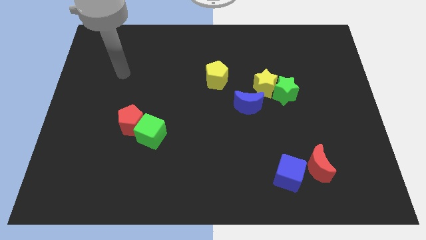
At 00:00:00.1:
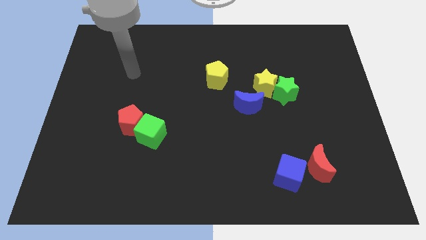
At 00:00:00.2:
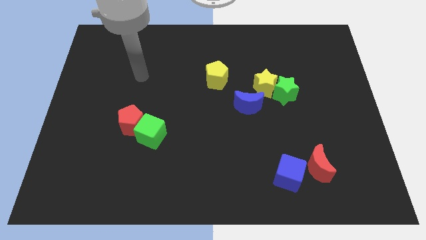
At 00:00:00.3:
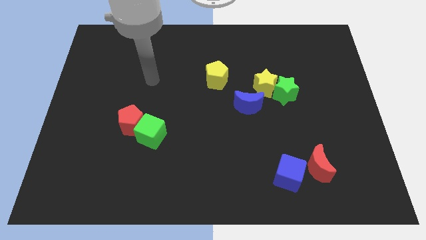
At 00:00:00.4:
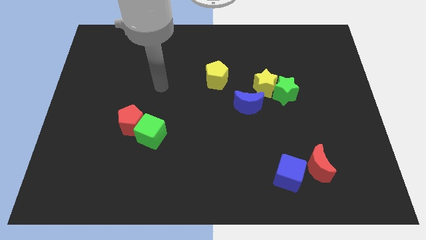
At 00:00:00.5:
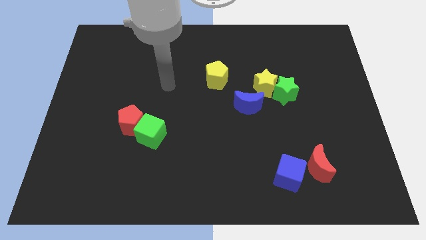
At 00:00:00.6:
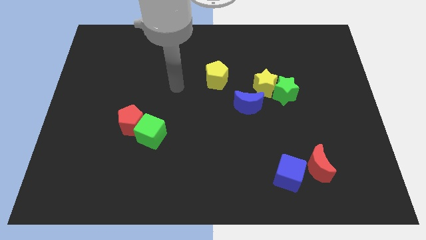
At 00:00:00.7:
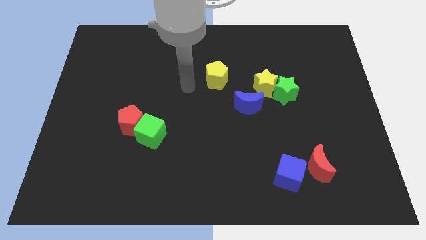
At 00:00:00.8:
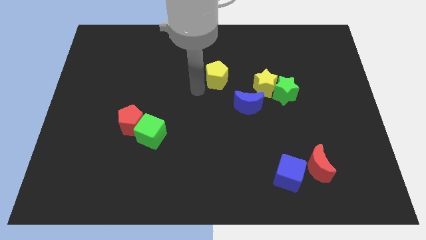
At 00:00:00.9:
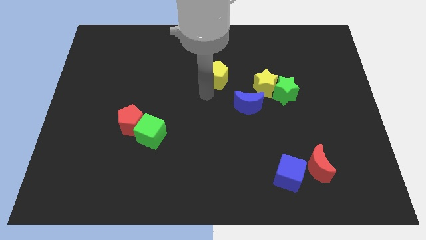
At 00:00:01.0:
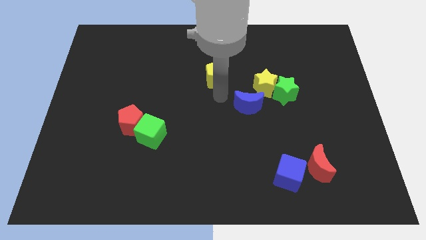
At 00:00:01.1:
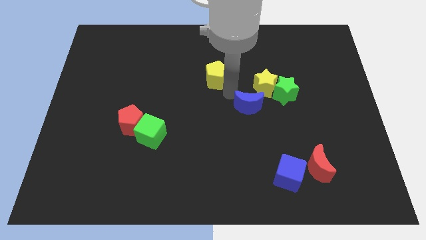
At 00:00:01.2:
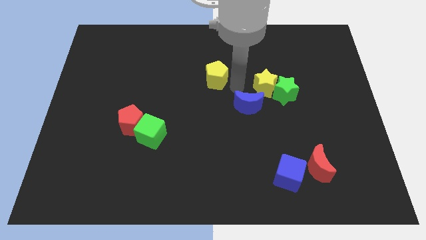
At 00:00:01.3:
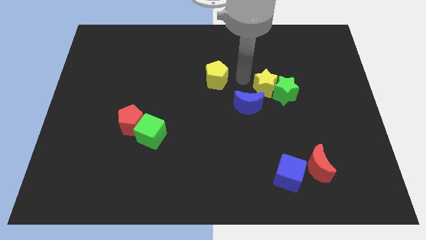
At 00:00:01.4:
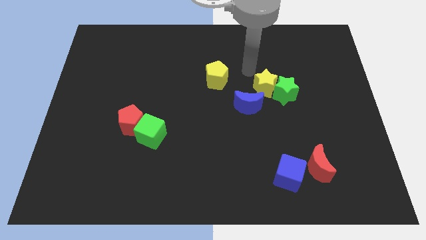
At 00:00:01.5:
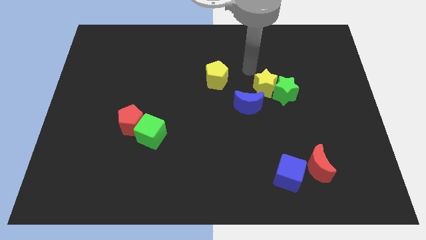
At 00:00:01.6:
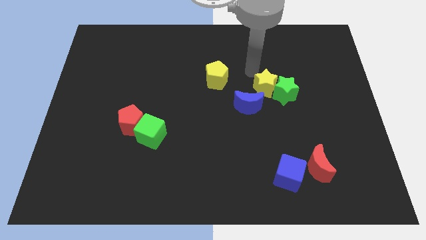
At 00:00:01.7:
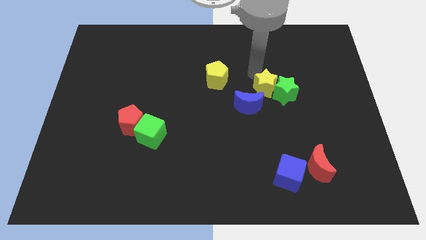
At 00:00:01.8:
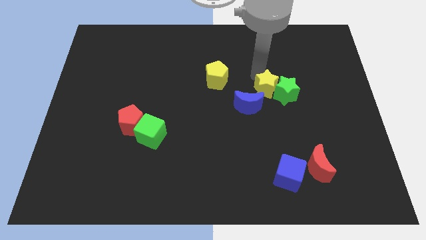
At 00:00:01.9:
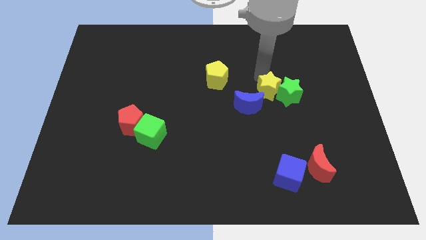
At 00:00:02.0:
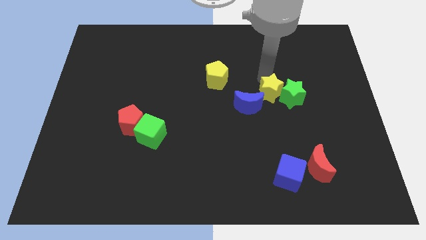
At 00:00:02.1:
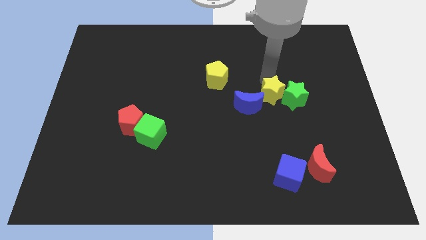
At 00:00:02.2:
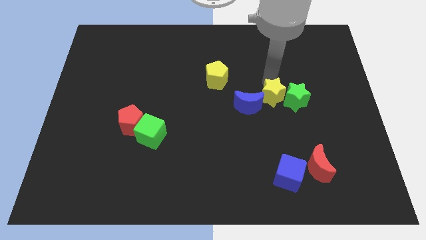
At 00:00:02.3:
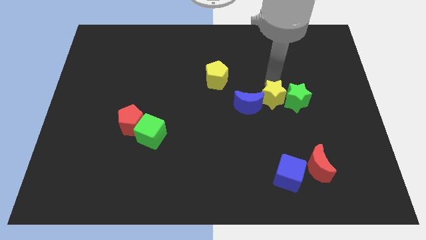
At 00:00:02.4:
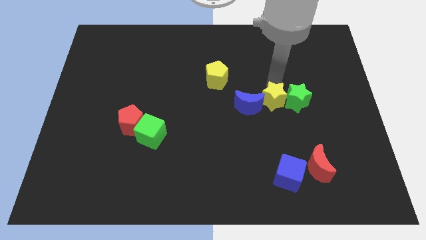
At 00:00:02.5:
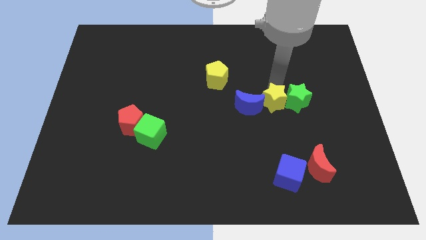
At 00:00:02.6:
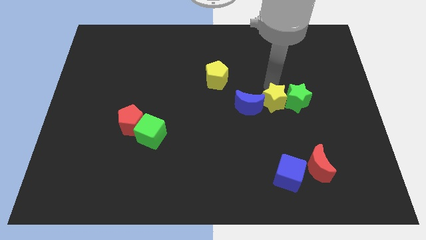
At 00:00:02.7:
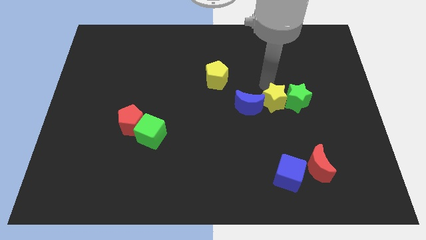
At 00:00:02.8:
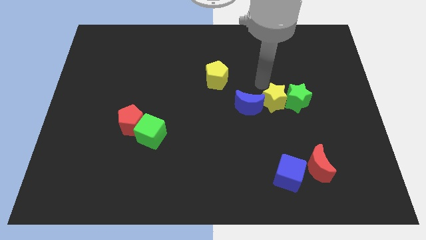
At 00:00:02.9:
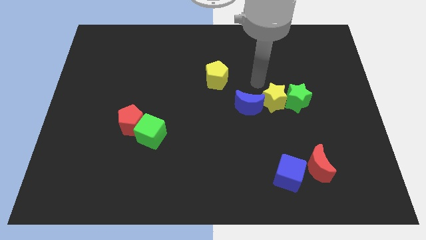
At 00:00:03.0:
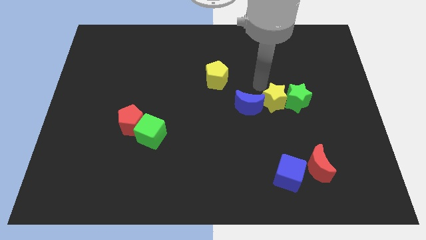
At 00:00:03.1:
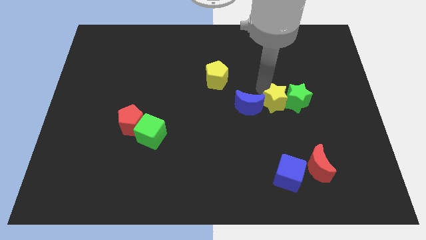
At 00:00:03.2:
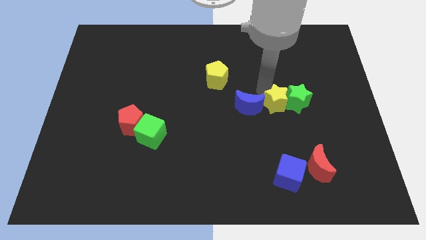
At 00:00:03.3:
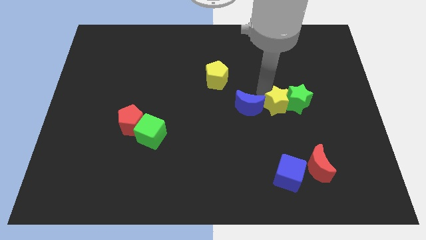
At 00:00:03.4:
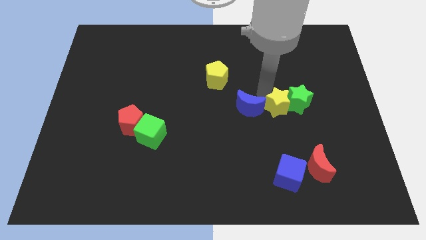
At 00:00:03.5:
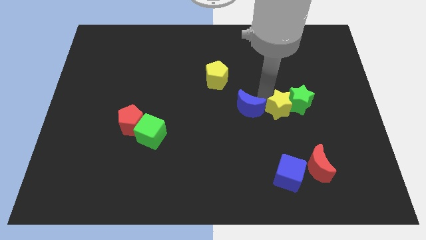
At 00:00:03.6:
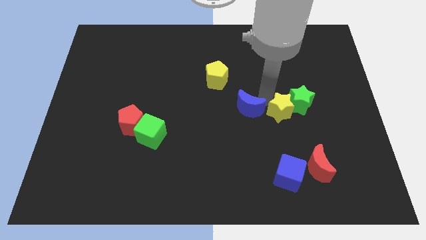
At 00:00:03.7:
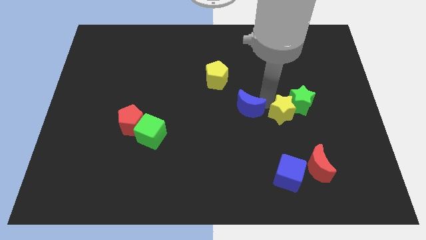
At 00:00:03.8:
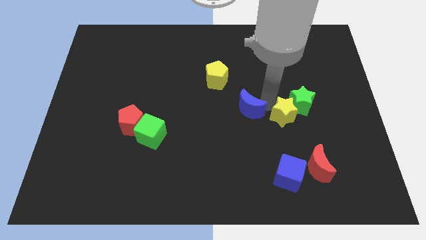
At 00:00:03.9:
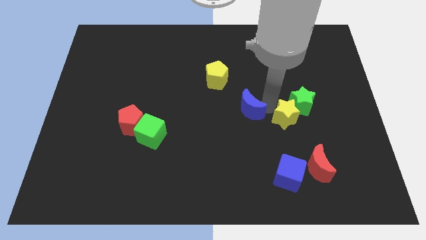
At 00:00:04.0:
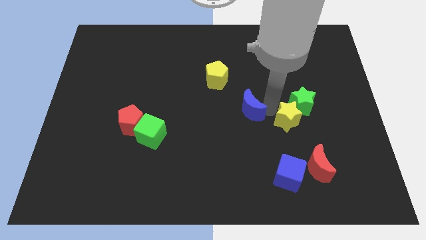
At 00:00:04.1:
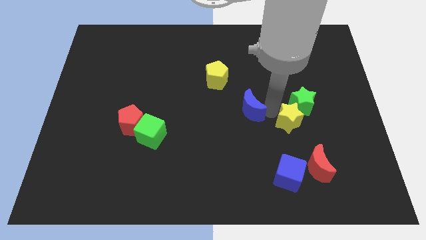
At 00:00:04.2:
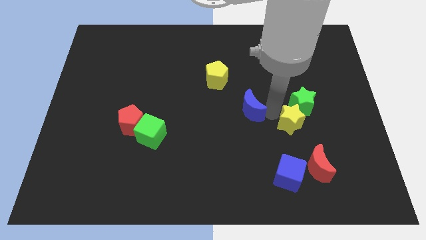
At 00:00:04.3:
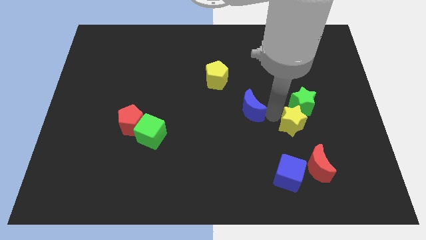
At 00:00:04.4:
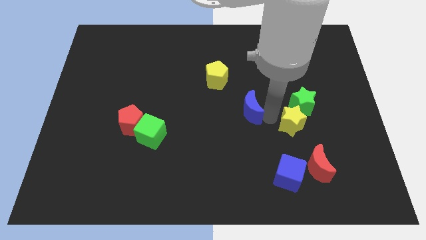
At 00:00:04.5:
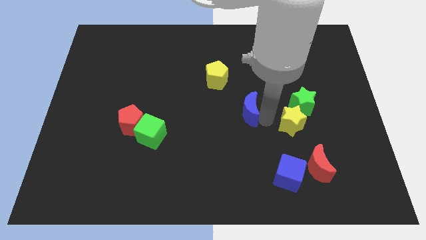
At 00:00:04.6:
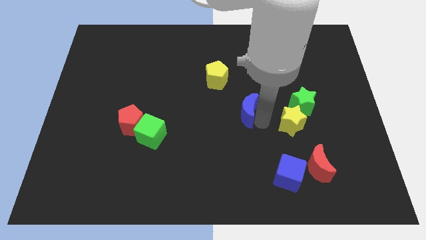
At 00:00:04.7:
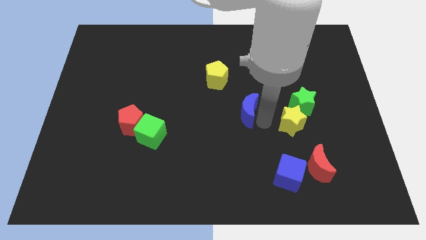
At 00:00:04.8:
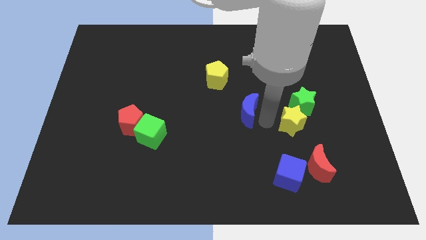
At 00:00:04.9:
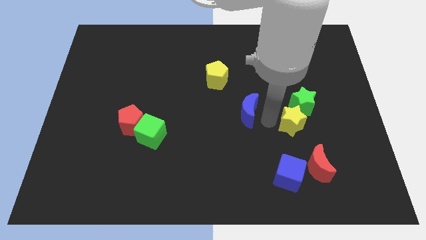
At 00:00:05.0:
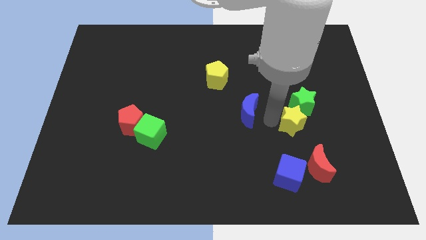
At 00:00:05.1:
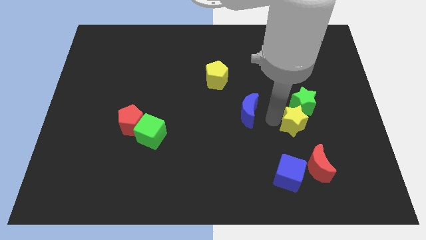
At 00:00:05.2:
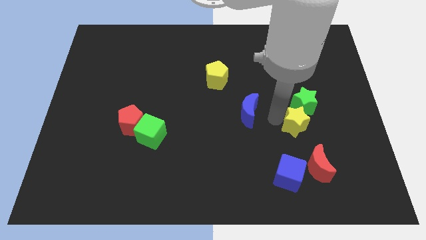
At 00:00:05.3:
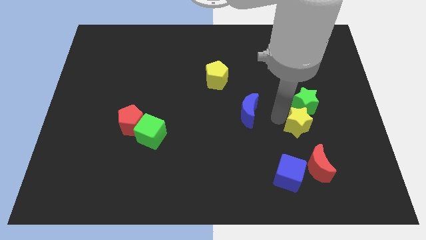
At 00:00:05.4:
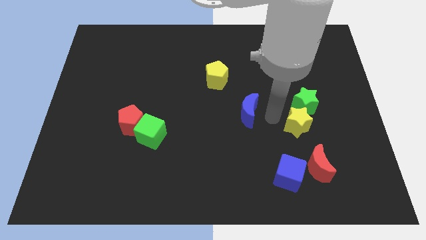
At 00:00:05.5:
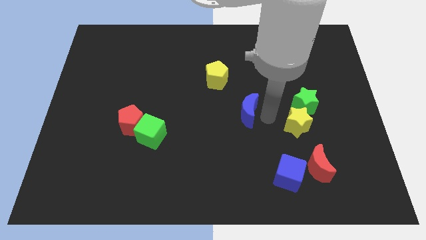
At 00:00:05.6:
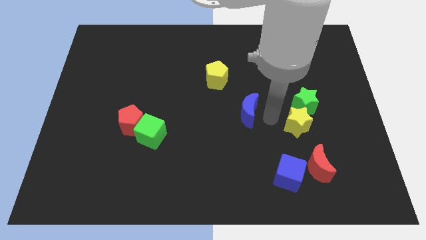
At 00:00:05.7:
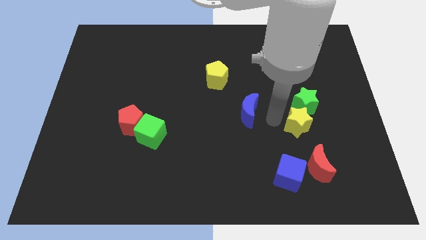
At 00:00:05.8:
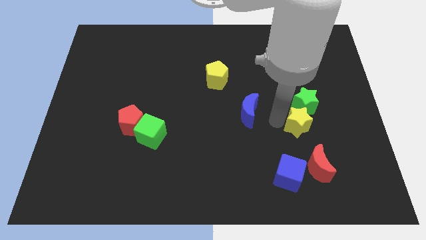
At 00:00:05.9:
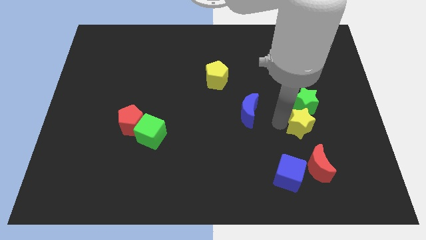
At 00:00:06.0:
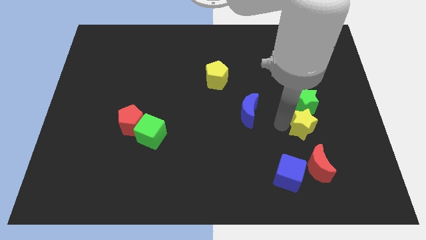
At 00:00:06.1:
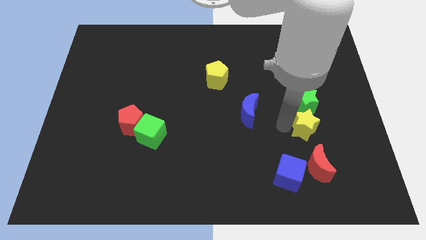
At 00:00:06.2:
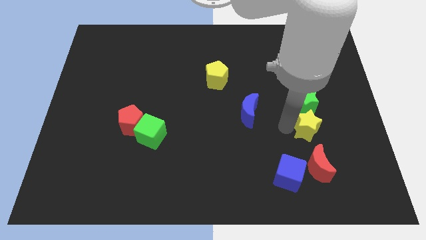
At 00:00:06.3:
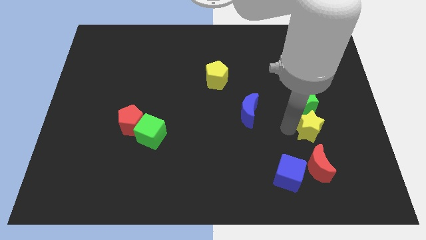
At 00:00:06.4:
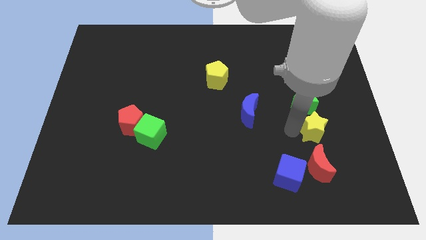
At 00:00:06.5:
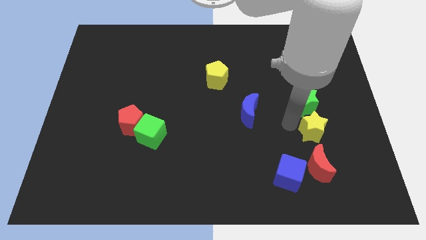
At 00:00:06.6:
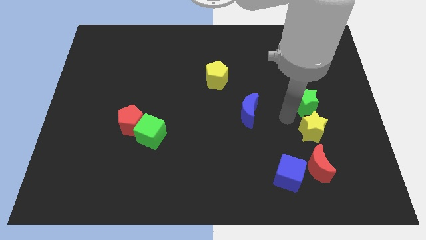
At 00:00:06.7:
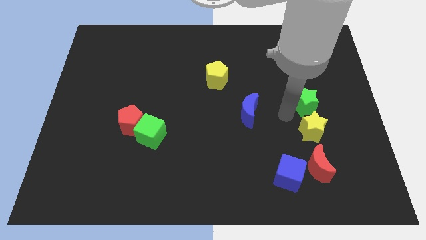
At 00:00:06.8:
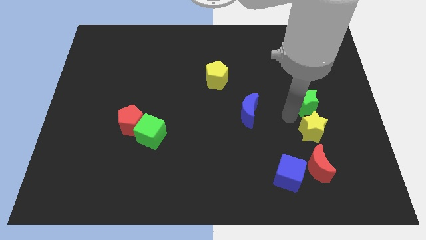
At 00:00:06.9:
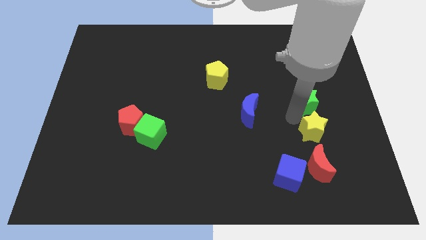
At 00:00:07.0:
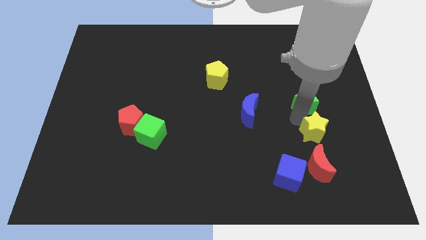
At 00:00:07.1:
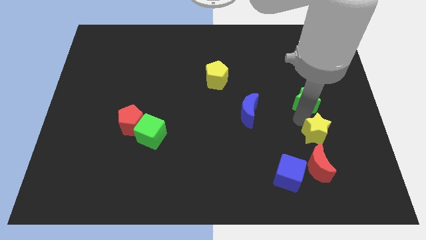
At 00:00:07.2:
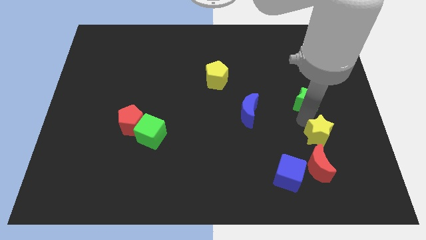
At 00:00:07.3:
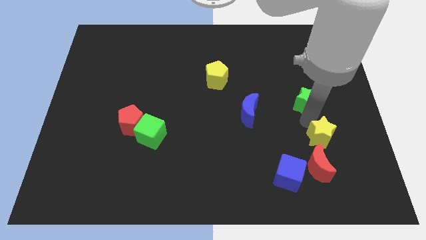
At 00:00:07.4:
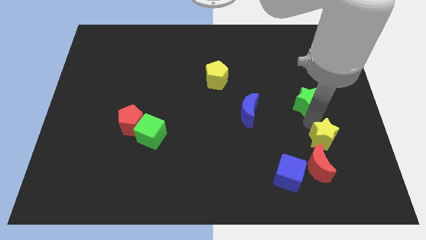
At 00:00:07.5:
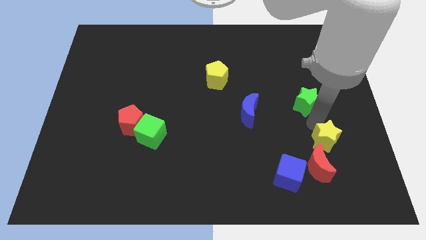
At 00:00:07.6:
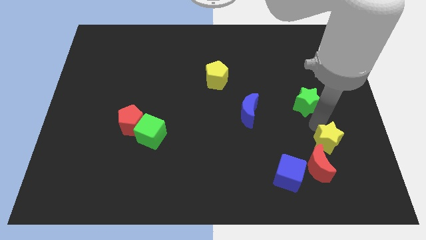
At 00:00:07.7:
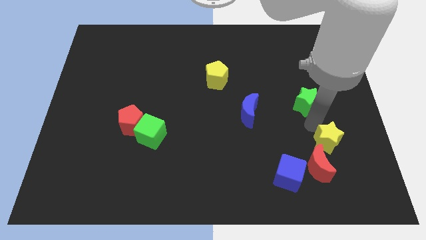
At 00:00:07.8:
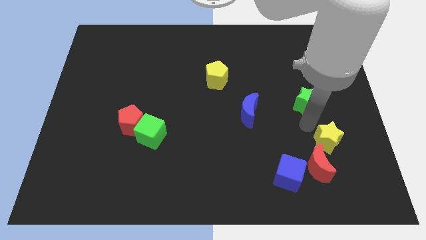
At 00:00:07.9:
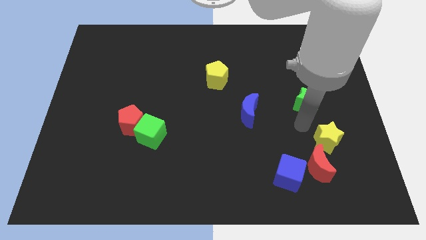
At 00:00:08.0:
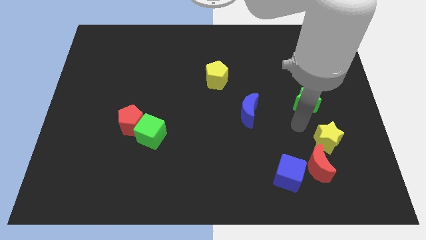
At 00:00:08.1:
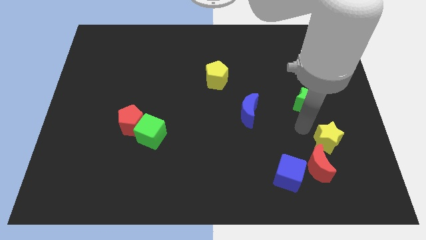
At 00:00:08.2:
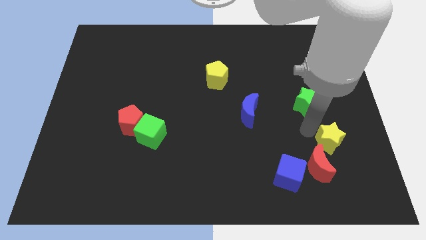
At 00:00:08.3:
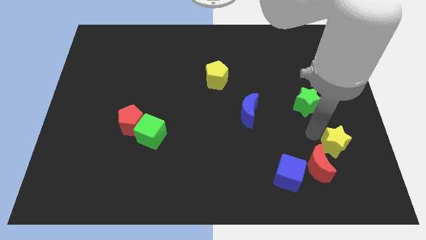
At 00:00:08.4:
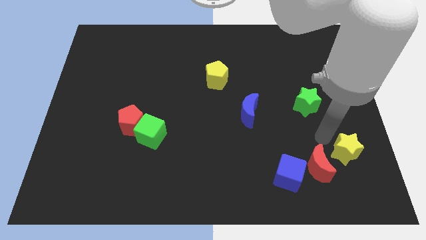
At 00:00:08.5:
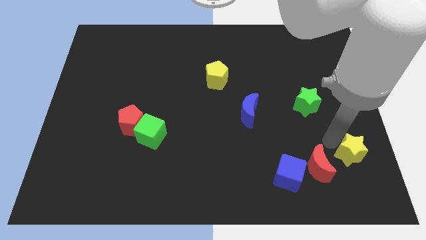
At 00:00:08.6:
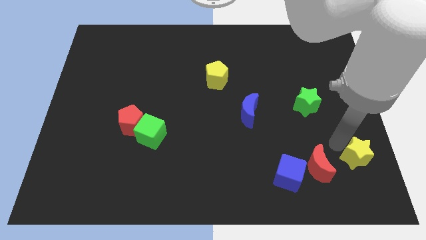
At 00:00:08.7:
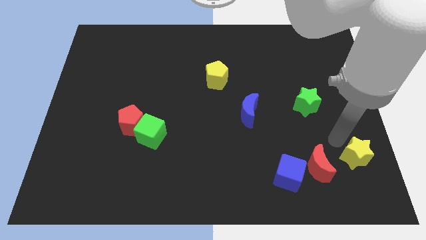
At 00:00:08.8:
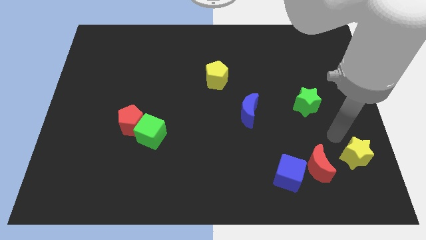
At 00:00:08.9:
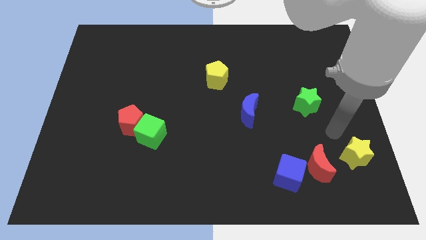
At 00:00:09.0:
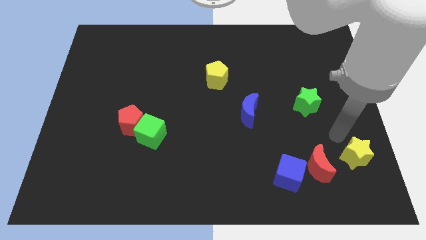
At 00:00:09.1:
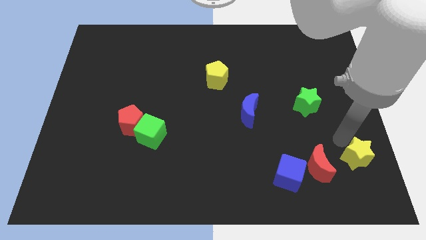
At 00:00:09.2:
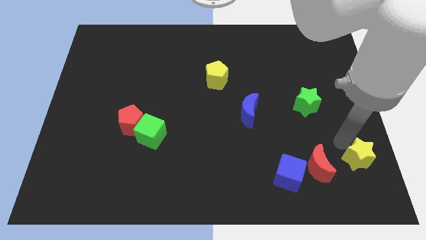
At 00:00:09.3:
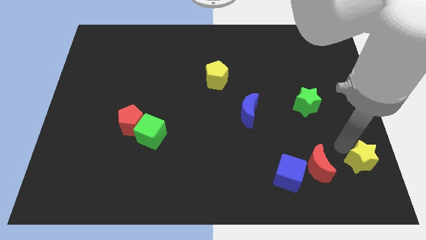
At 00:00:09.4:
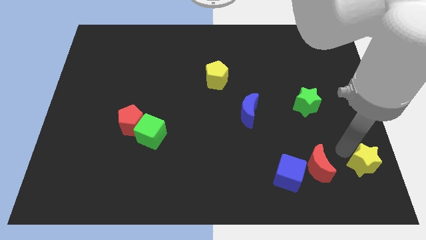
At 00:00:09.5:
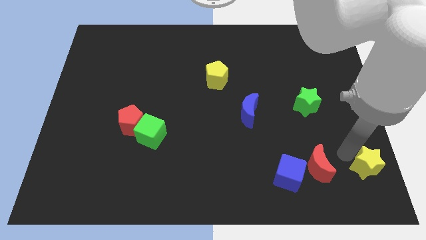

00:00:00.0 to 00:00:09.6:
slide the yellow star to the lower right corner
